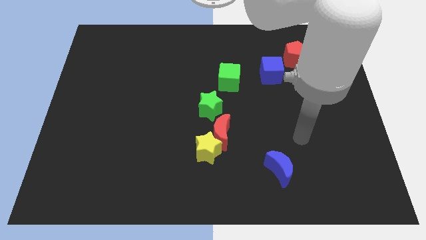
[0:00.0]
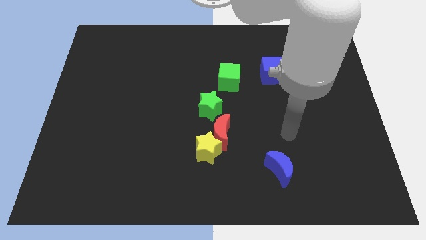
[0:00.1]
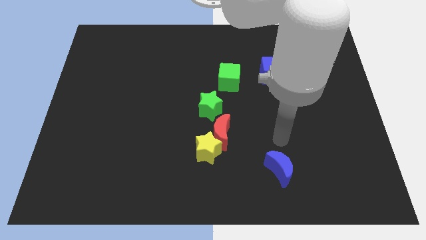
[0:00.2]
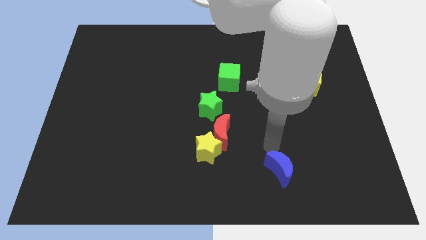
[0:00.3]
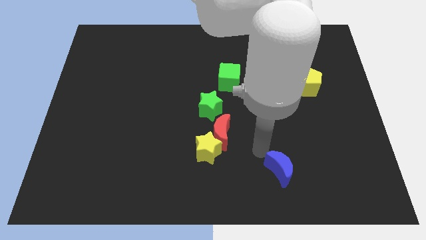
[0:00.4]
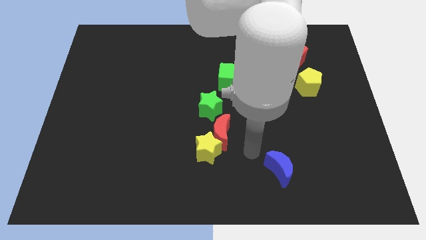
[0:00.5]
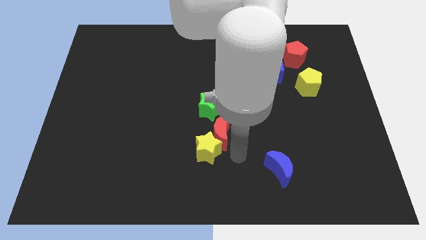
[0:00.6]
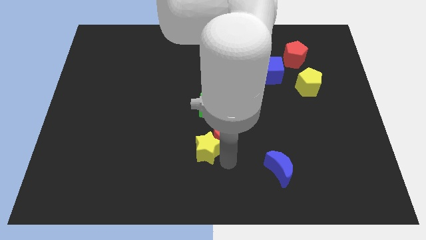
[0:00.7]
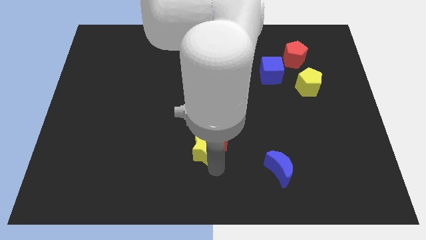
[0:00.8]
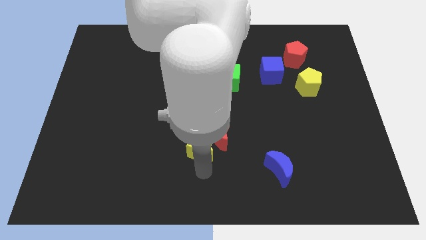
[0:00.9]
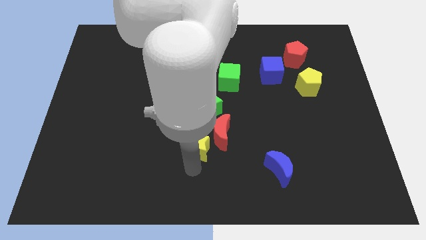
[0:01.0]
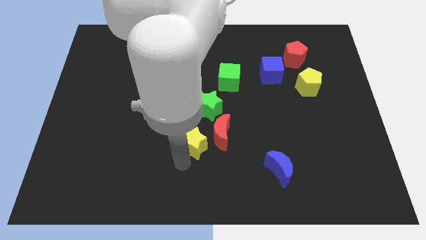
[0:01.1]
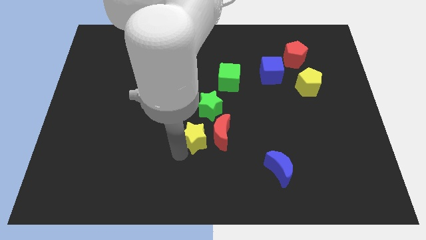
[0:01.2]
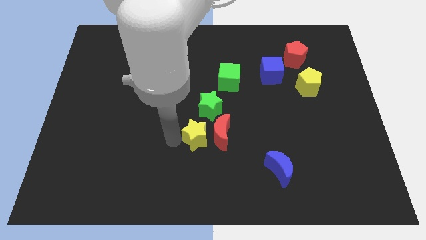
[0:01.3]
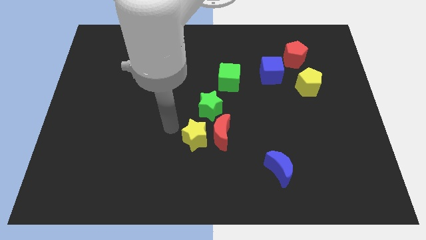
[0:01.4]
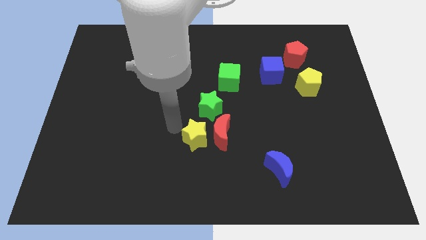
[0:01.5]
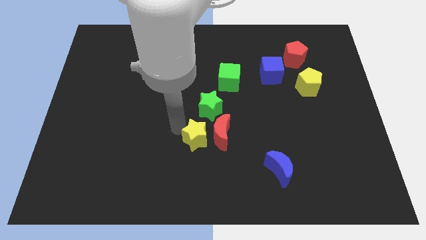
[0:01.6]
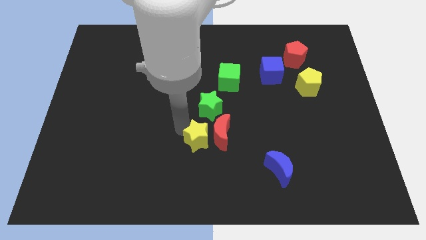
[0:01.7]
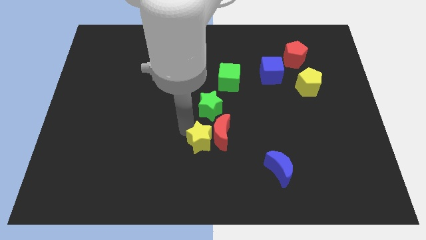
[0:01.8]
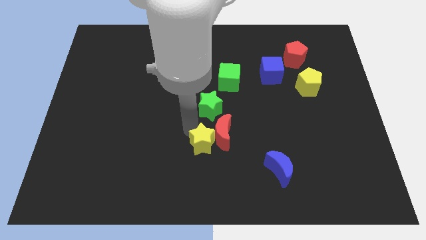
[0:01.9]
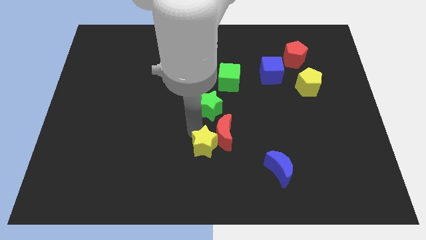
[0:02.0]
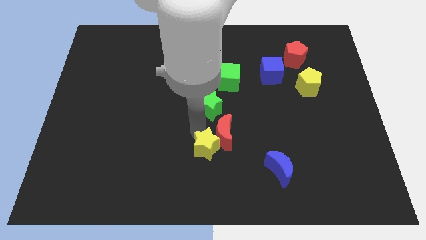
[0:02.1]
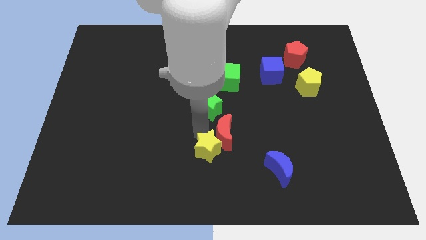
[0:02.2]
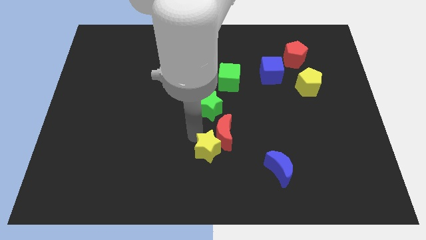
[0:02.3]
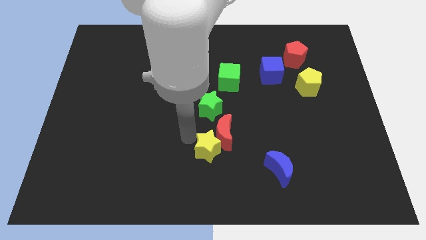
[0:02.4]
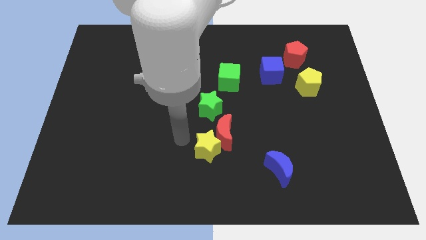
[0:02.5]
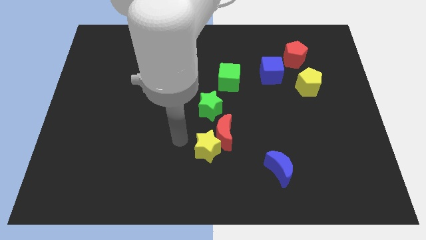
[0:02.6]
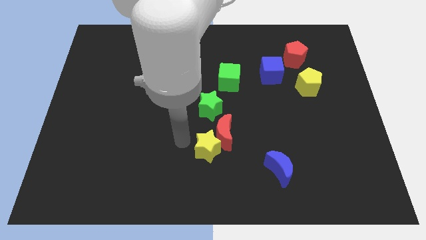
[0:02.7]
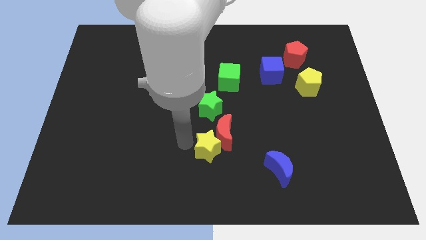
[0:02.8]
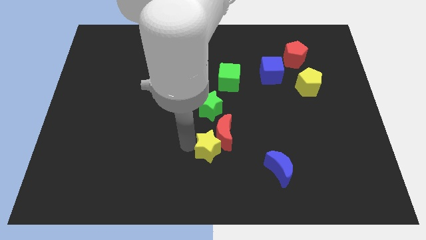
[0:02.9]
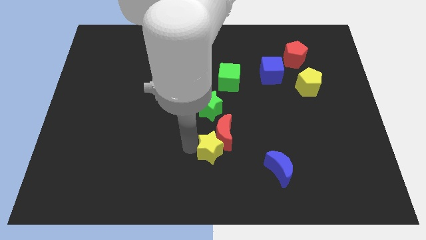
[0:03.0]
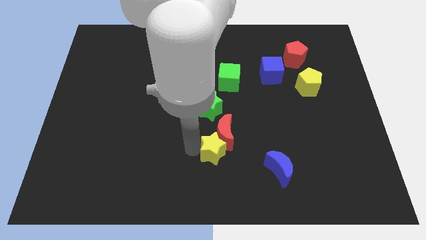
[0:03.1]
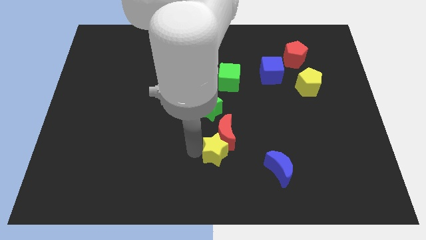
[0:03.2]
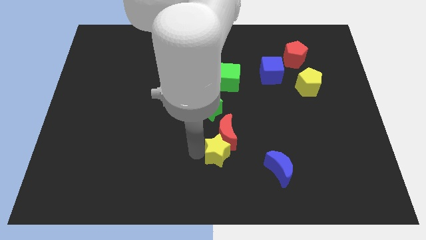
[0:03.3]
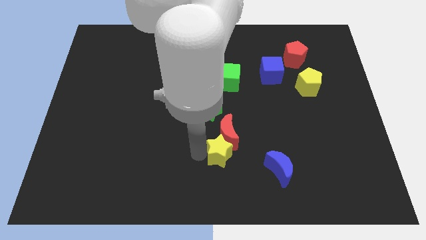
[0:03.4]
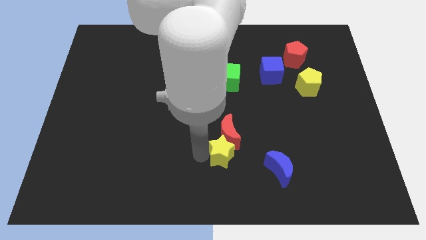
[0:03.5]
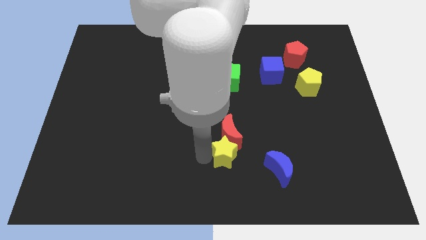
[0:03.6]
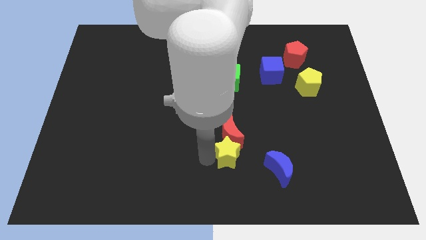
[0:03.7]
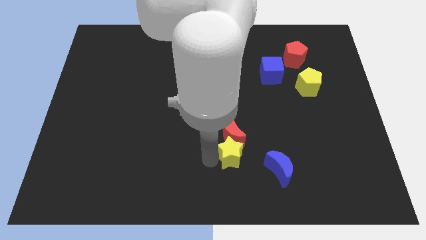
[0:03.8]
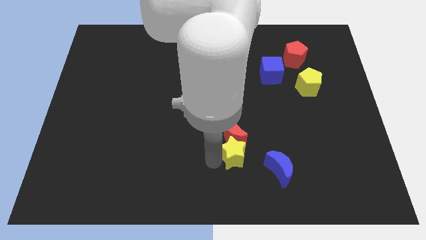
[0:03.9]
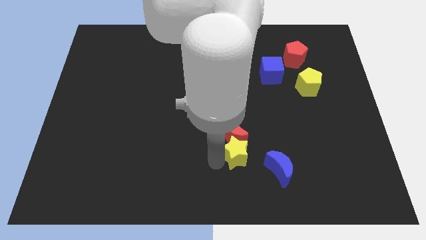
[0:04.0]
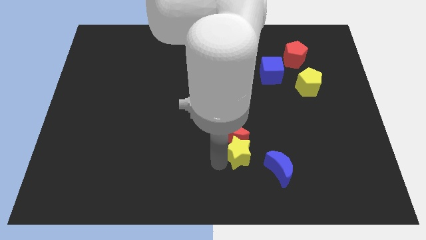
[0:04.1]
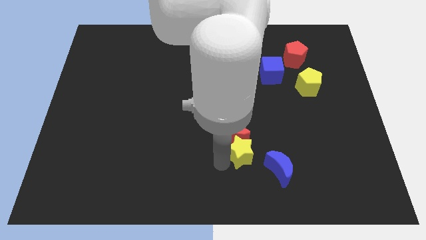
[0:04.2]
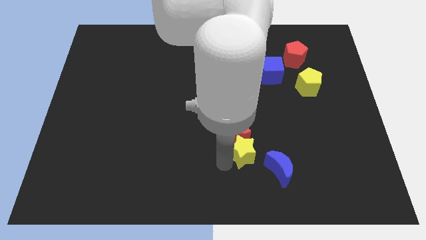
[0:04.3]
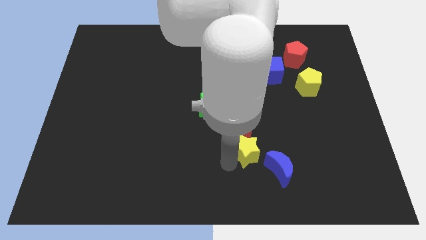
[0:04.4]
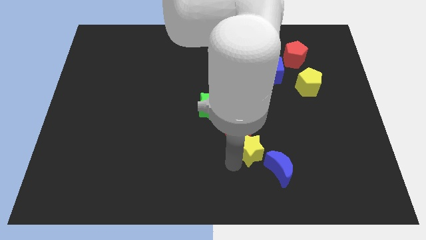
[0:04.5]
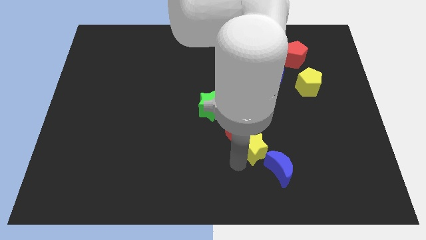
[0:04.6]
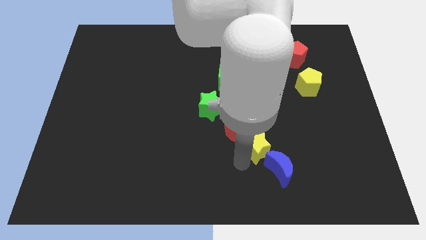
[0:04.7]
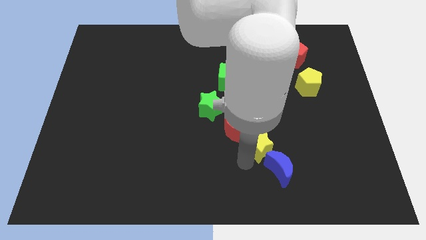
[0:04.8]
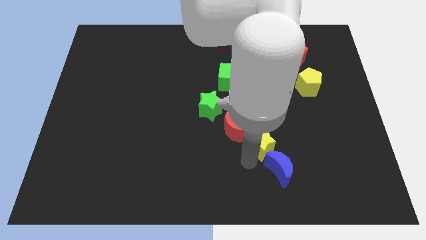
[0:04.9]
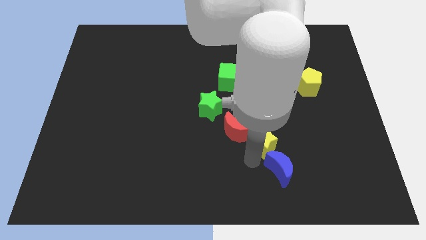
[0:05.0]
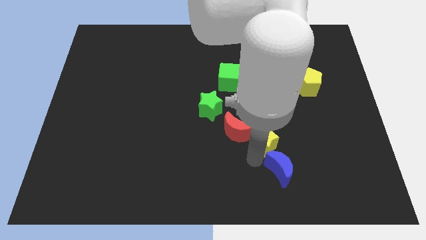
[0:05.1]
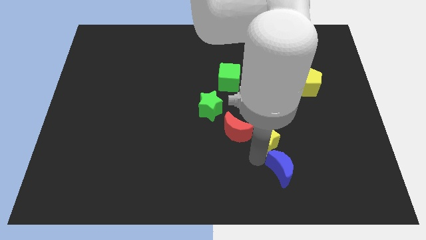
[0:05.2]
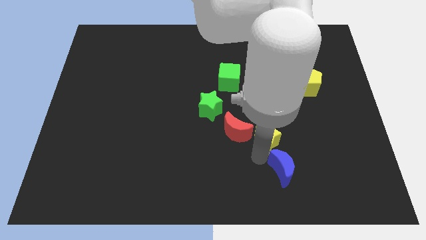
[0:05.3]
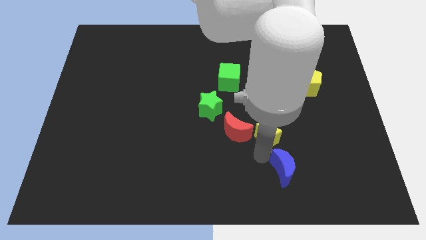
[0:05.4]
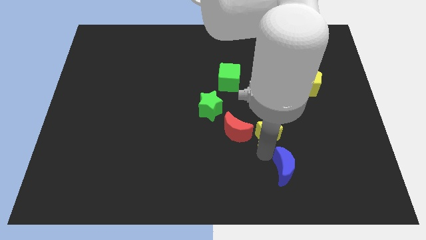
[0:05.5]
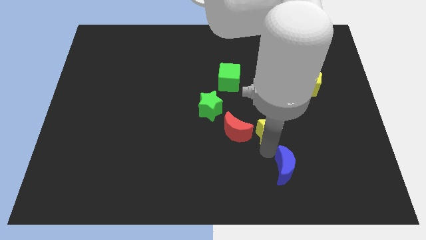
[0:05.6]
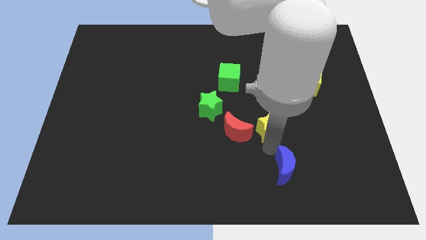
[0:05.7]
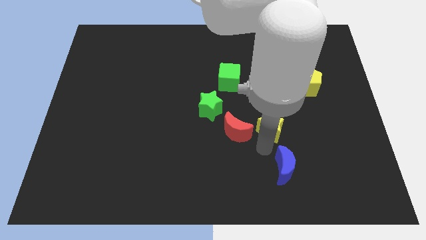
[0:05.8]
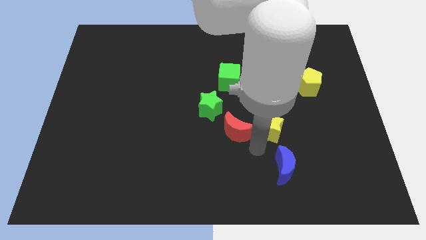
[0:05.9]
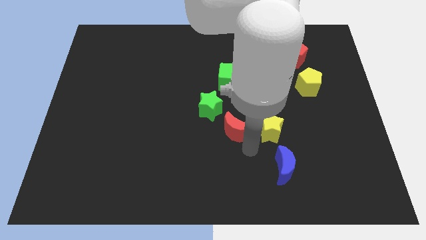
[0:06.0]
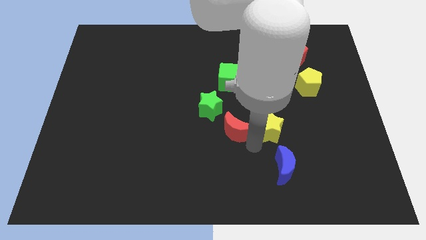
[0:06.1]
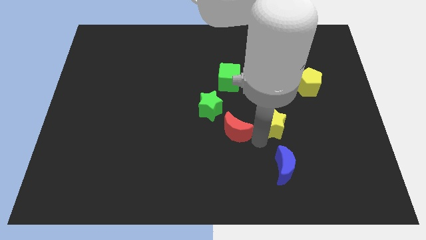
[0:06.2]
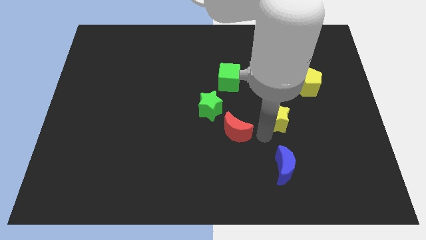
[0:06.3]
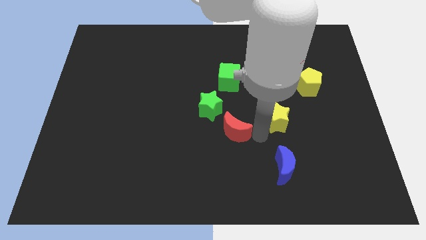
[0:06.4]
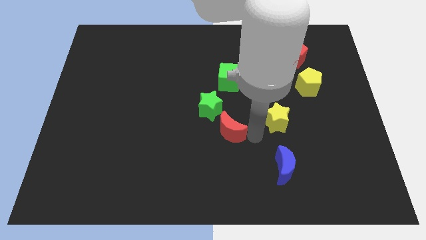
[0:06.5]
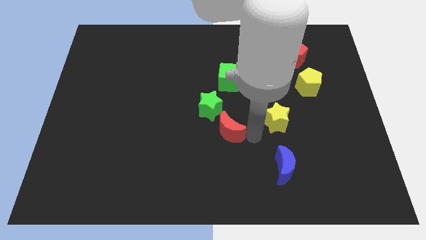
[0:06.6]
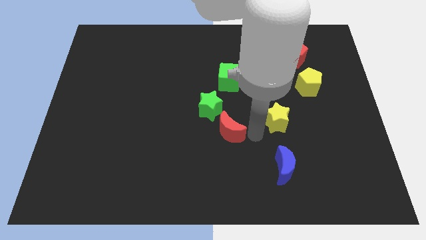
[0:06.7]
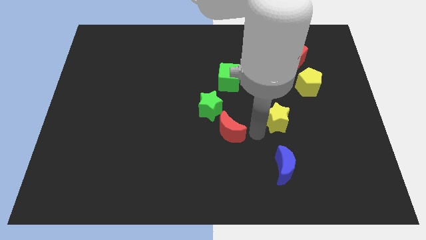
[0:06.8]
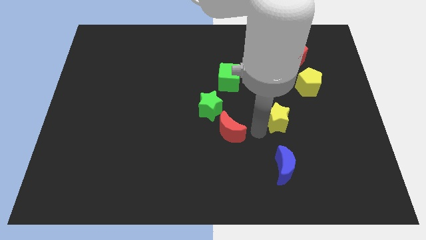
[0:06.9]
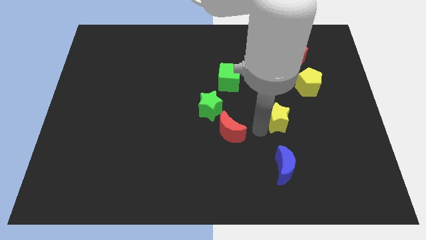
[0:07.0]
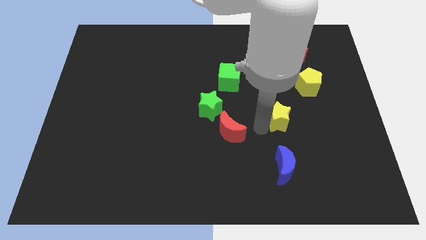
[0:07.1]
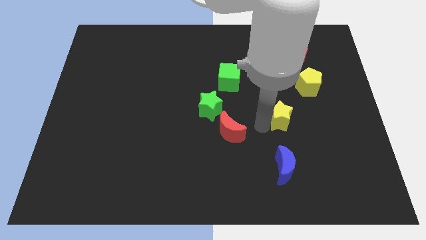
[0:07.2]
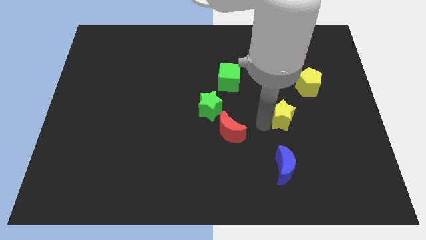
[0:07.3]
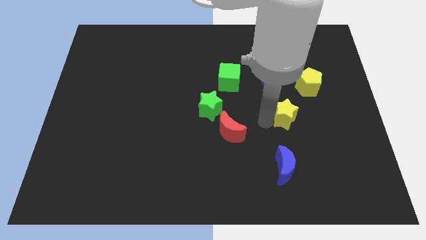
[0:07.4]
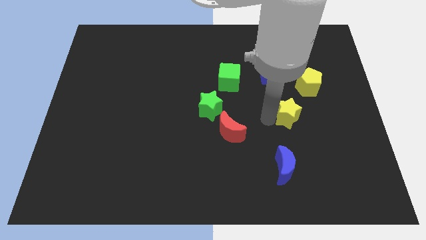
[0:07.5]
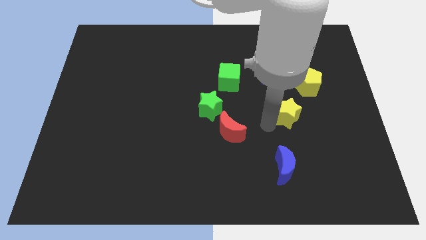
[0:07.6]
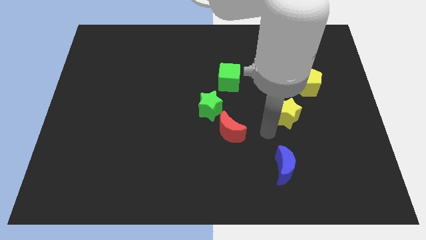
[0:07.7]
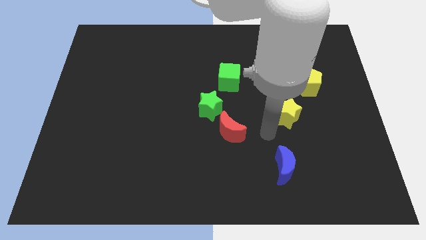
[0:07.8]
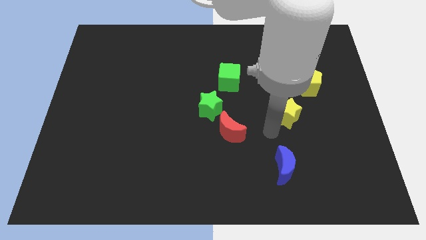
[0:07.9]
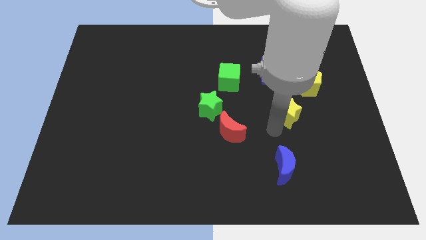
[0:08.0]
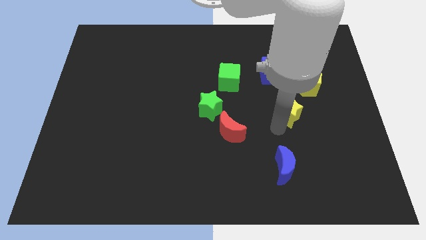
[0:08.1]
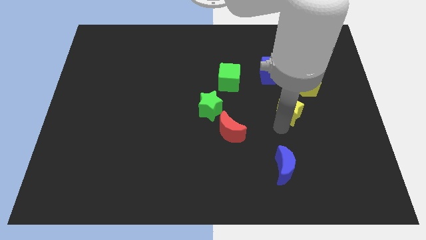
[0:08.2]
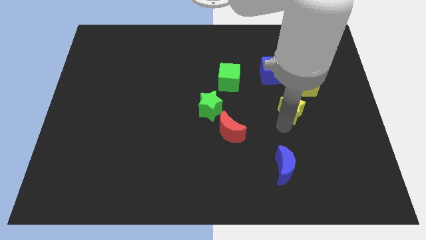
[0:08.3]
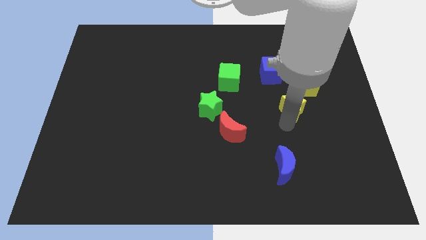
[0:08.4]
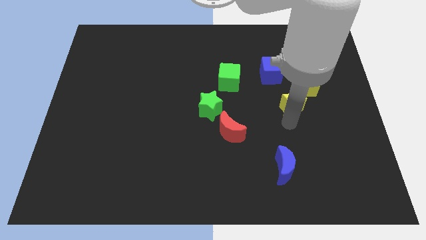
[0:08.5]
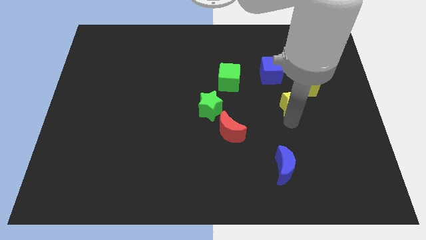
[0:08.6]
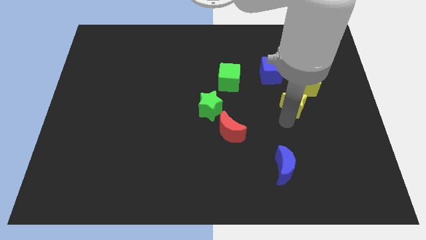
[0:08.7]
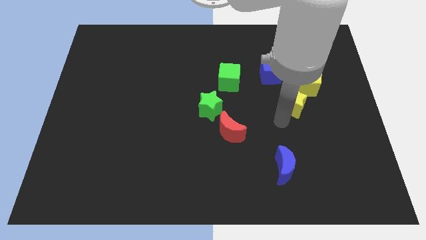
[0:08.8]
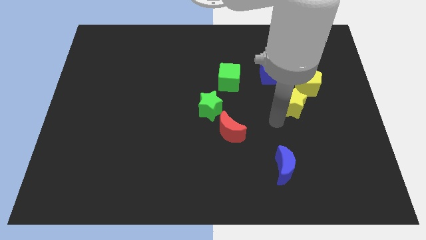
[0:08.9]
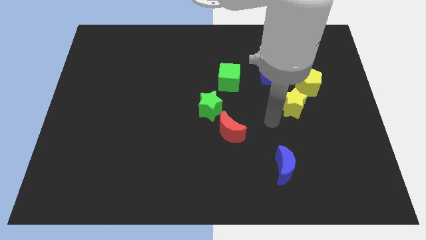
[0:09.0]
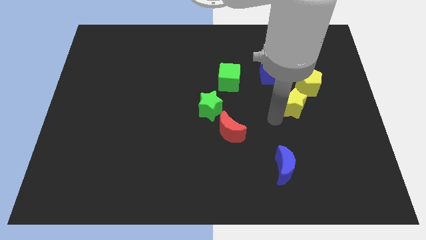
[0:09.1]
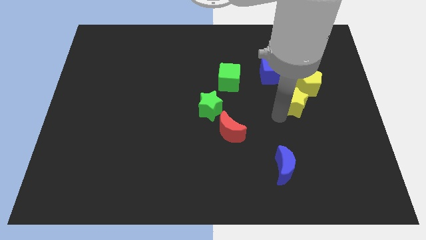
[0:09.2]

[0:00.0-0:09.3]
push the yellow star to the bottom right of the blue cube
